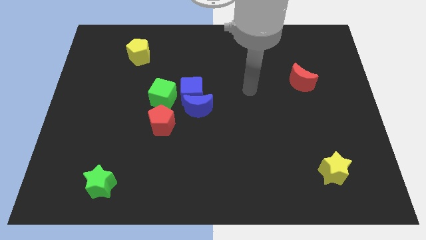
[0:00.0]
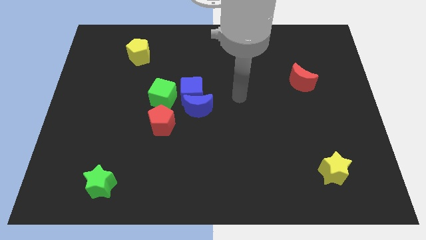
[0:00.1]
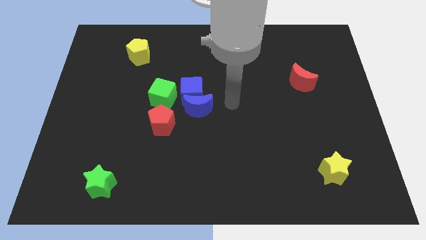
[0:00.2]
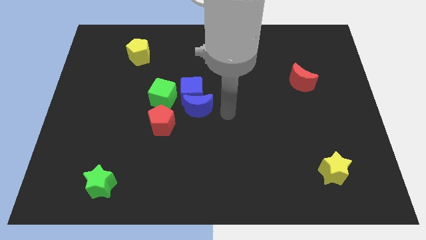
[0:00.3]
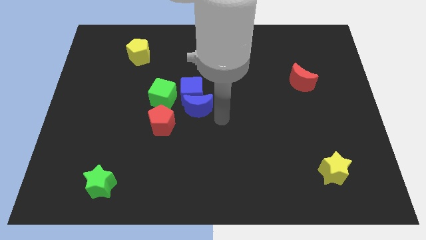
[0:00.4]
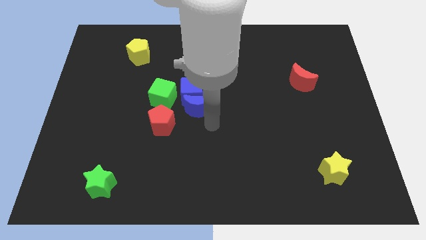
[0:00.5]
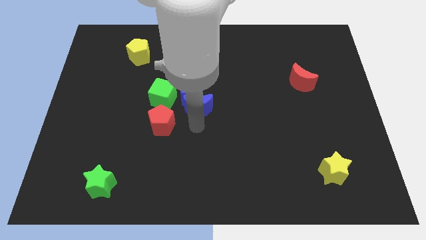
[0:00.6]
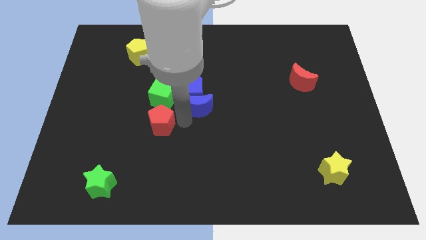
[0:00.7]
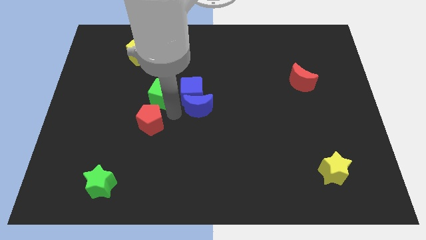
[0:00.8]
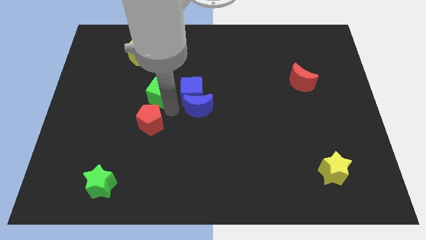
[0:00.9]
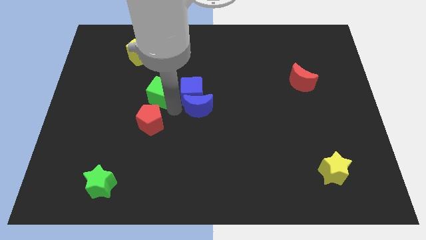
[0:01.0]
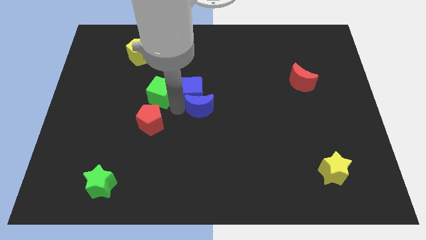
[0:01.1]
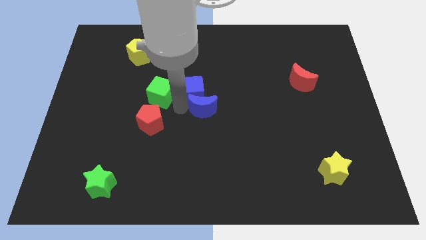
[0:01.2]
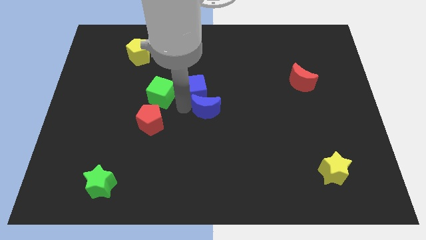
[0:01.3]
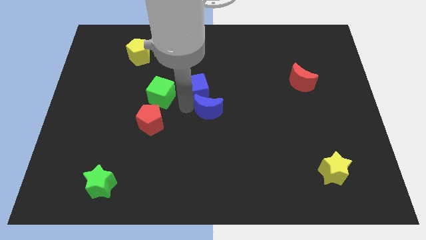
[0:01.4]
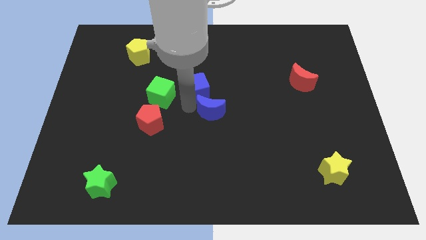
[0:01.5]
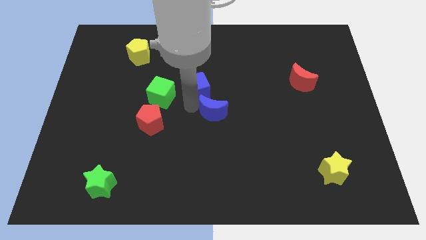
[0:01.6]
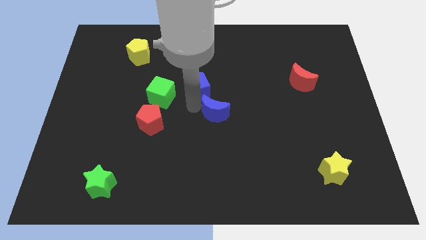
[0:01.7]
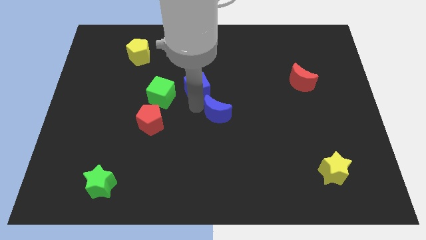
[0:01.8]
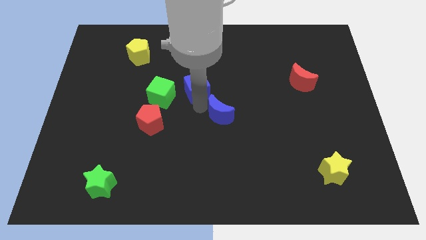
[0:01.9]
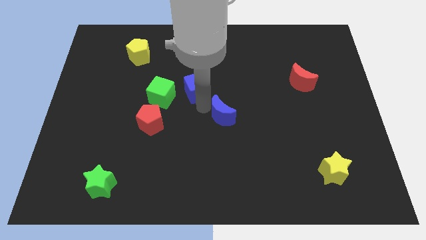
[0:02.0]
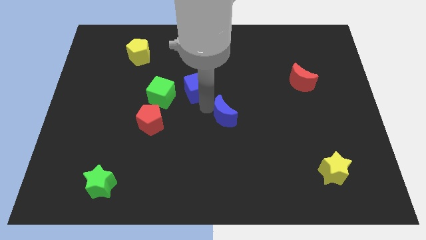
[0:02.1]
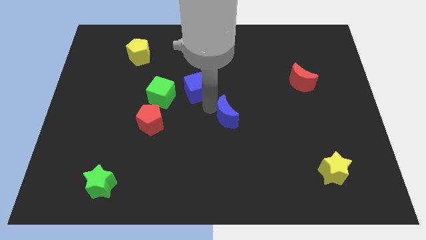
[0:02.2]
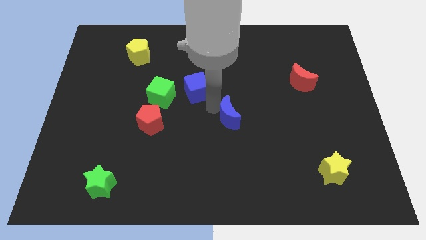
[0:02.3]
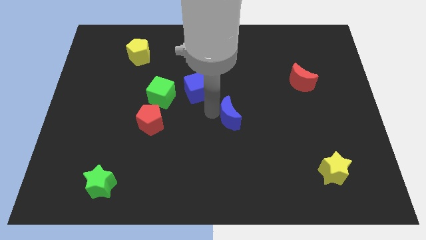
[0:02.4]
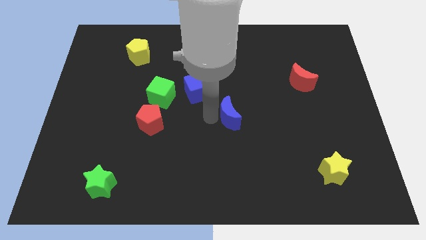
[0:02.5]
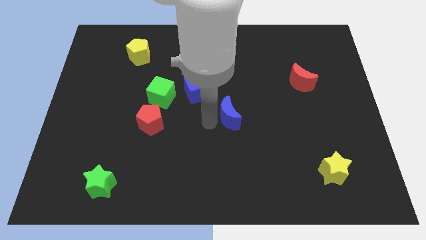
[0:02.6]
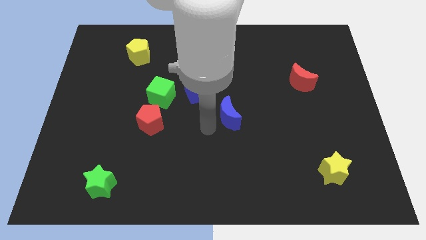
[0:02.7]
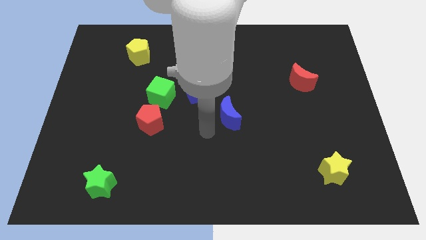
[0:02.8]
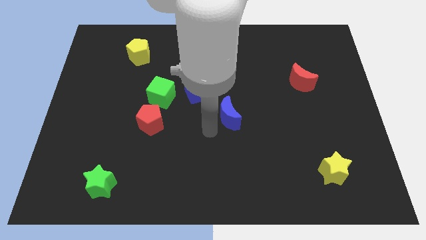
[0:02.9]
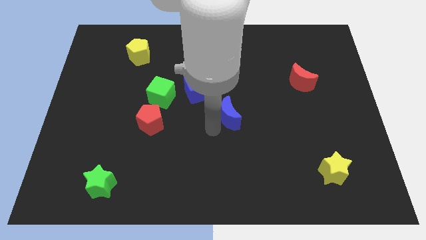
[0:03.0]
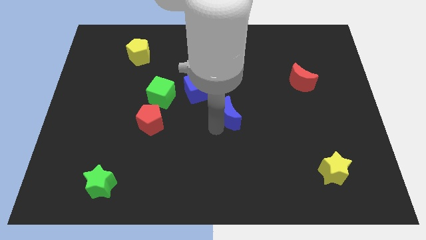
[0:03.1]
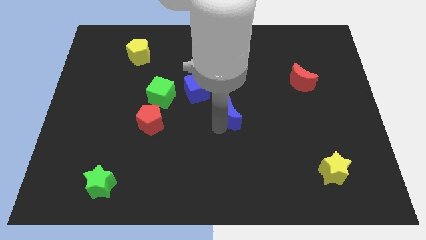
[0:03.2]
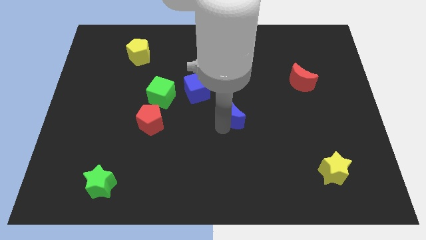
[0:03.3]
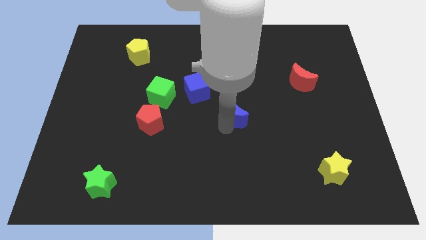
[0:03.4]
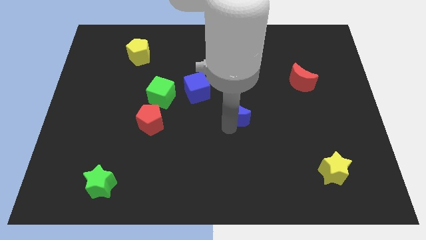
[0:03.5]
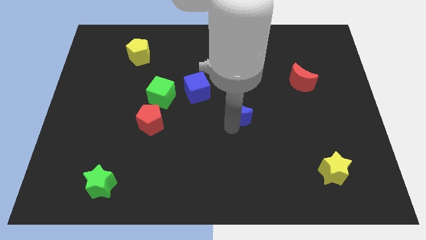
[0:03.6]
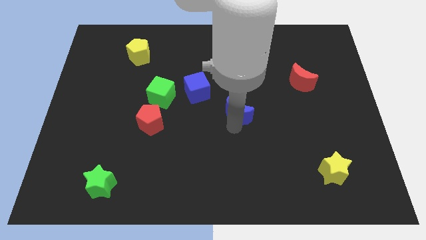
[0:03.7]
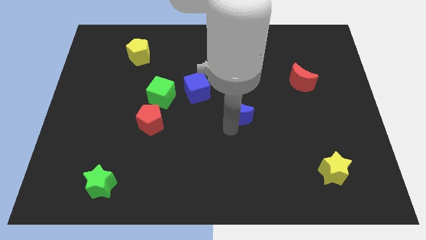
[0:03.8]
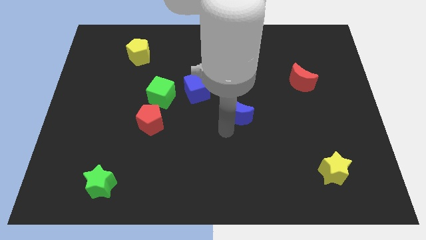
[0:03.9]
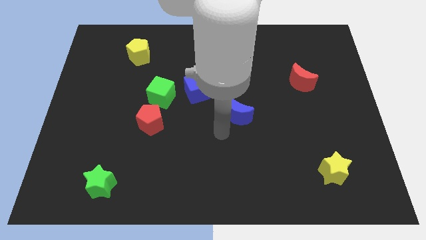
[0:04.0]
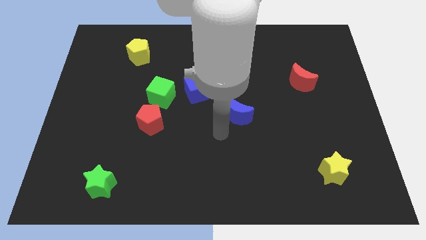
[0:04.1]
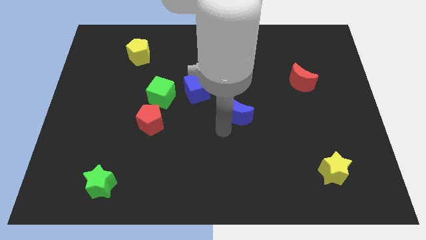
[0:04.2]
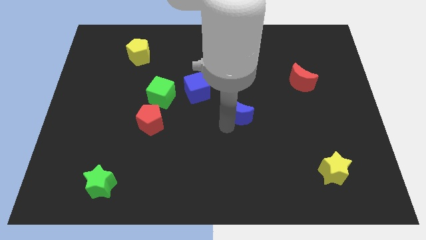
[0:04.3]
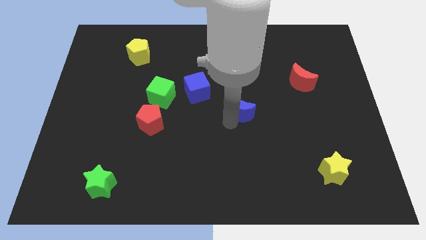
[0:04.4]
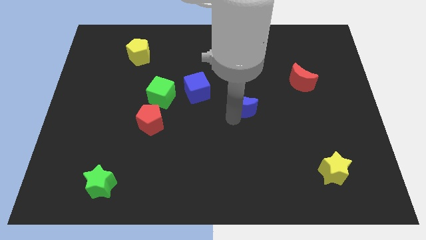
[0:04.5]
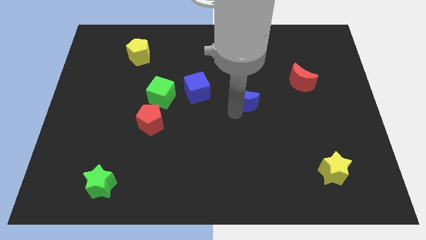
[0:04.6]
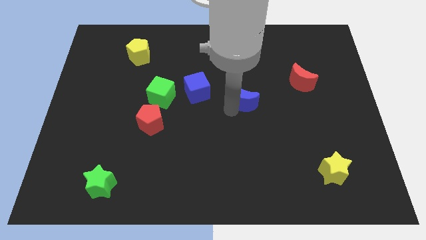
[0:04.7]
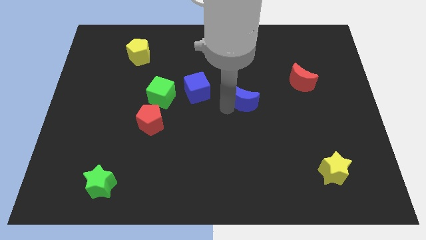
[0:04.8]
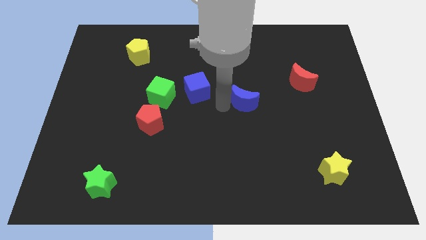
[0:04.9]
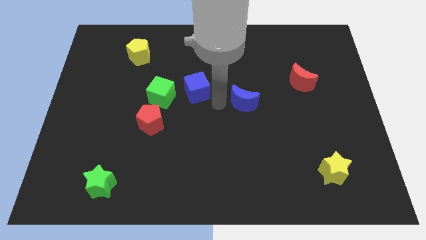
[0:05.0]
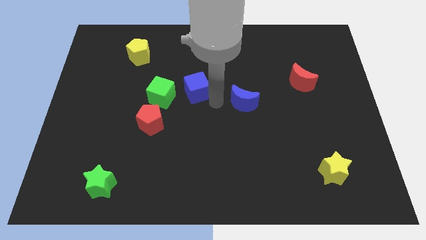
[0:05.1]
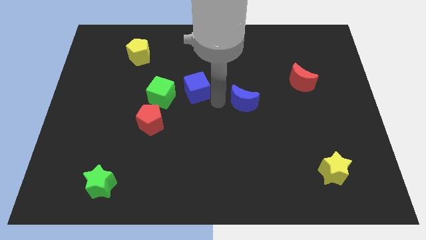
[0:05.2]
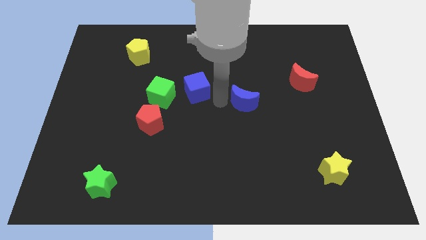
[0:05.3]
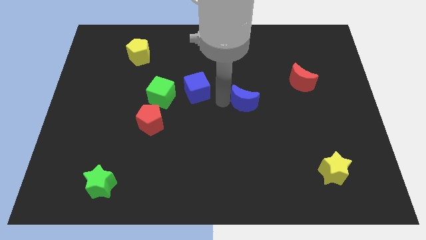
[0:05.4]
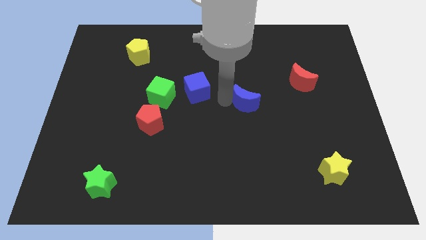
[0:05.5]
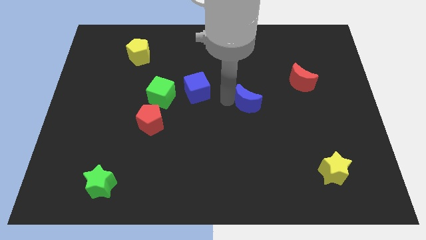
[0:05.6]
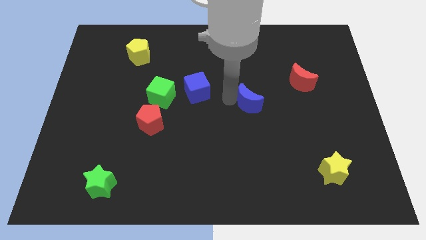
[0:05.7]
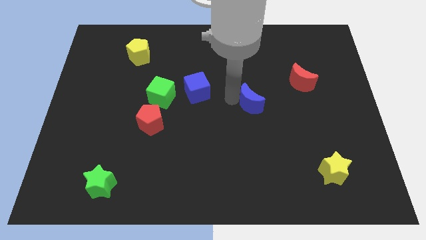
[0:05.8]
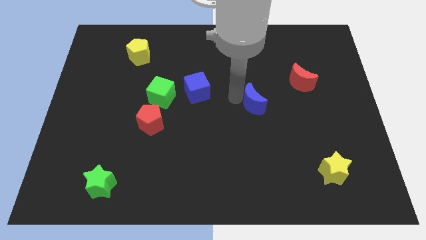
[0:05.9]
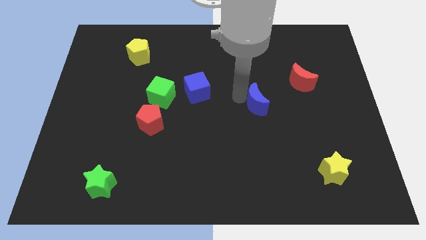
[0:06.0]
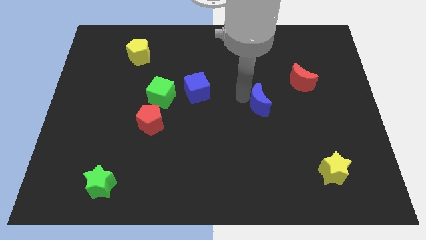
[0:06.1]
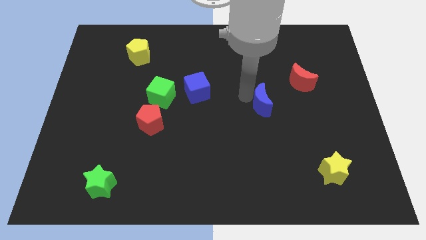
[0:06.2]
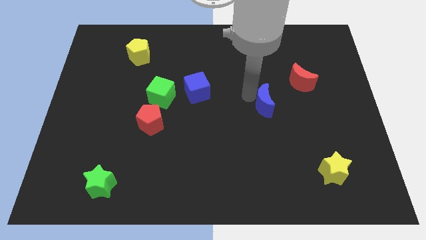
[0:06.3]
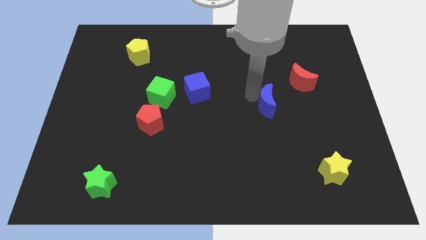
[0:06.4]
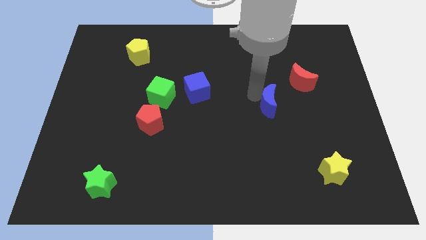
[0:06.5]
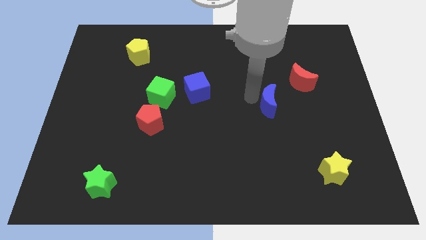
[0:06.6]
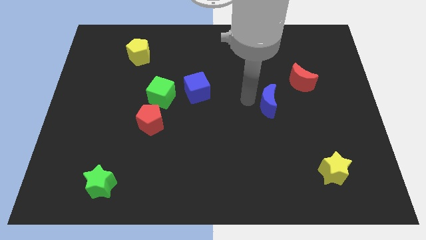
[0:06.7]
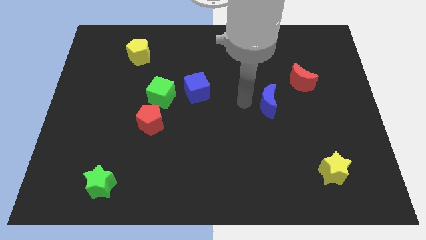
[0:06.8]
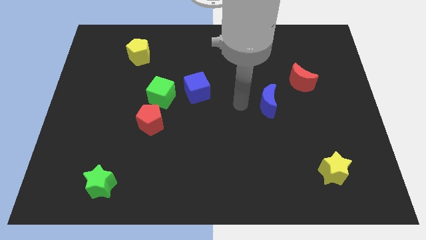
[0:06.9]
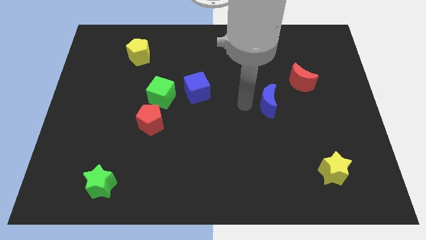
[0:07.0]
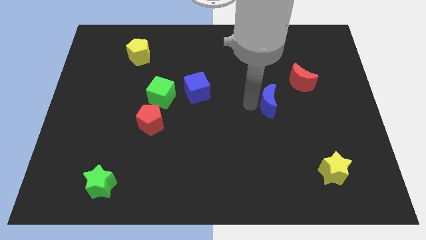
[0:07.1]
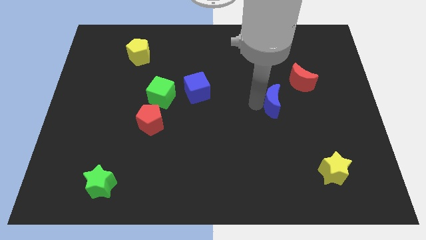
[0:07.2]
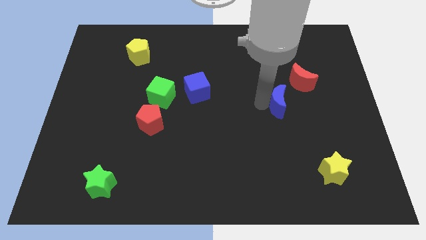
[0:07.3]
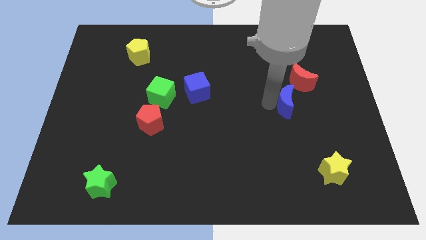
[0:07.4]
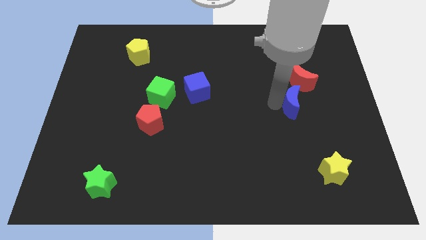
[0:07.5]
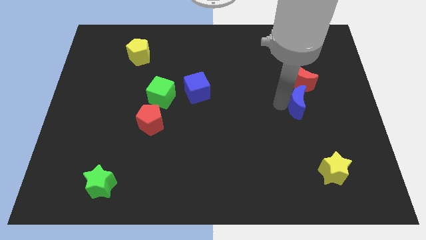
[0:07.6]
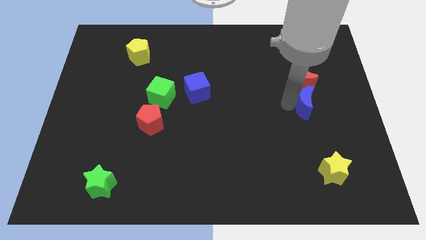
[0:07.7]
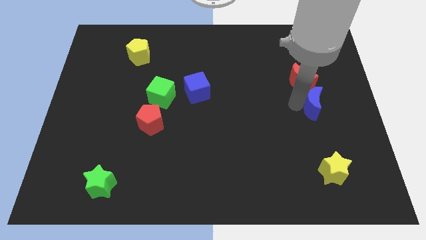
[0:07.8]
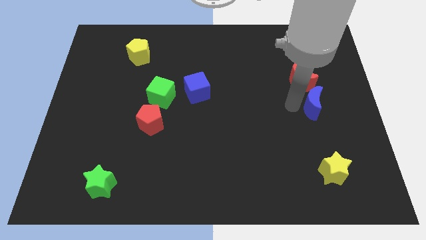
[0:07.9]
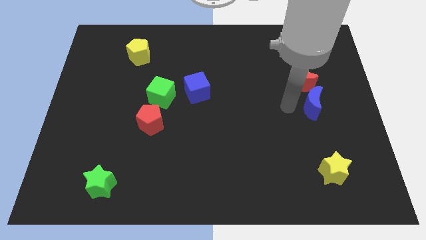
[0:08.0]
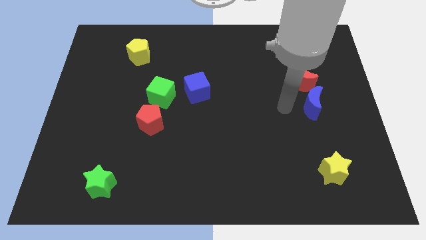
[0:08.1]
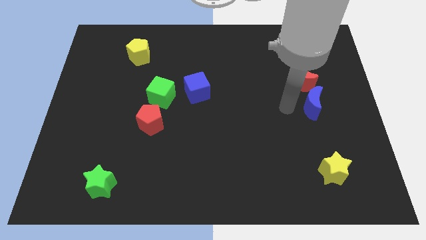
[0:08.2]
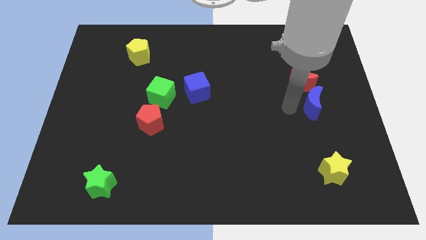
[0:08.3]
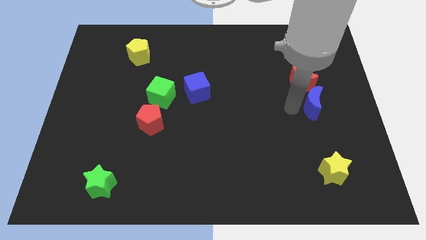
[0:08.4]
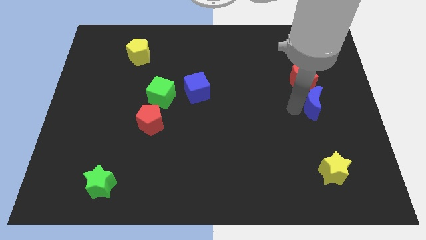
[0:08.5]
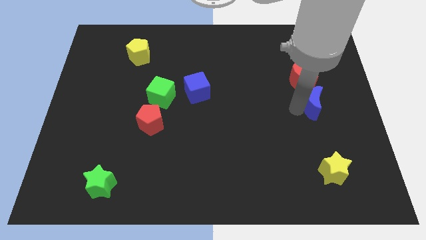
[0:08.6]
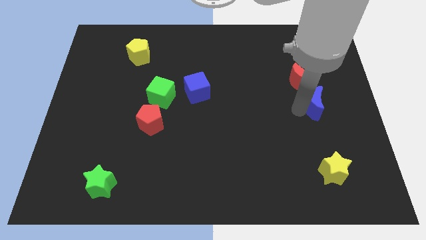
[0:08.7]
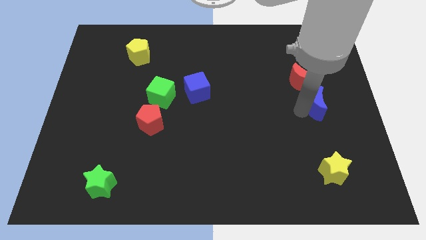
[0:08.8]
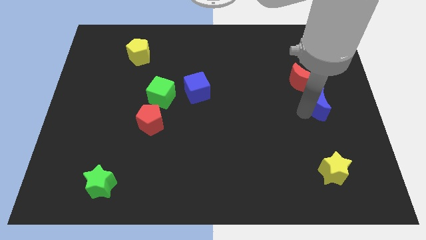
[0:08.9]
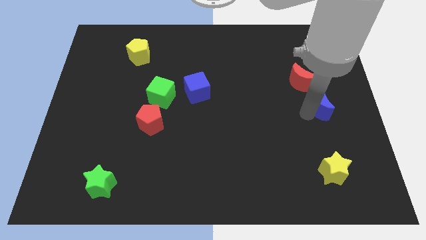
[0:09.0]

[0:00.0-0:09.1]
move the blue moon to the right side
